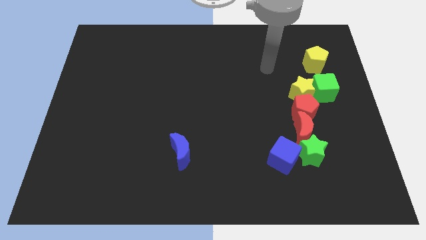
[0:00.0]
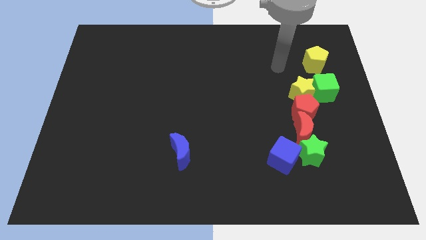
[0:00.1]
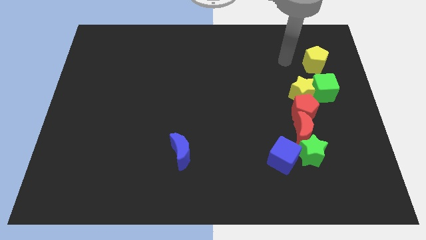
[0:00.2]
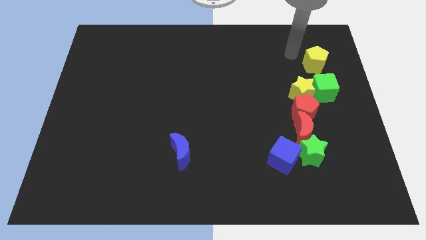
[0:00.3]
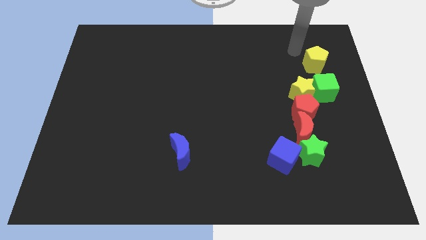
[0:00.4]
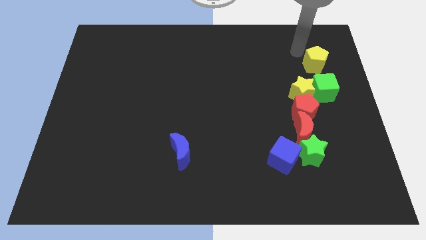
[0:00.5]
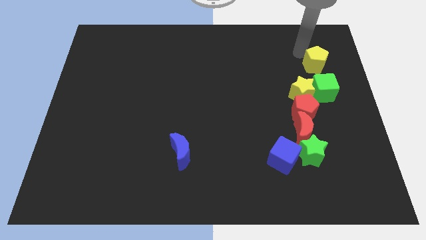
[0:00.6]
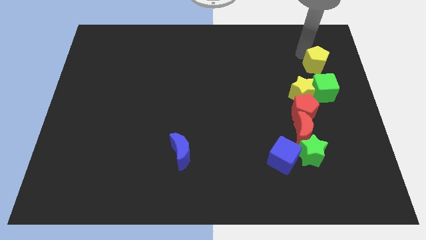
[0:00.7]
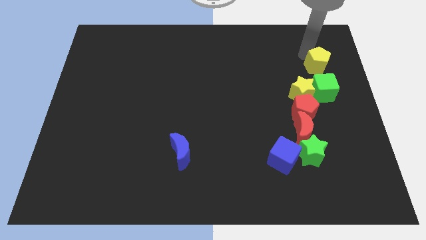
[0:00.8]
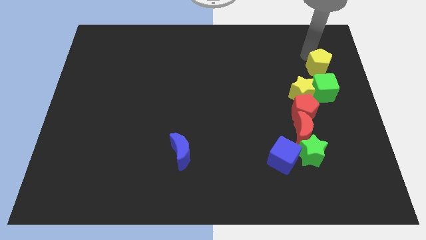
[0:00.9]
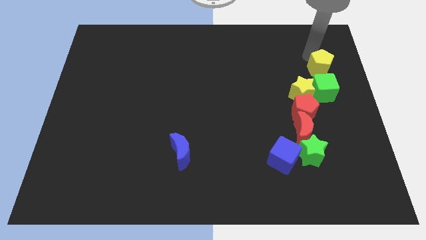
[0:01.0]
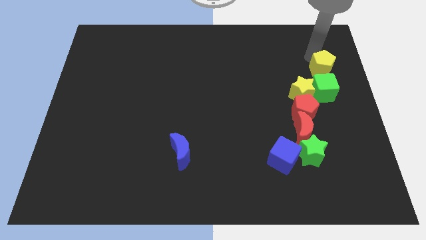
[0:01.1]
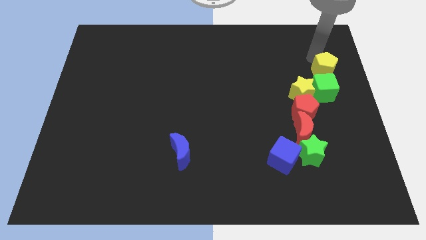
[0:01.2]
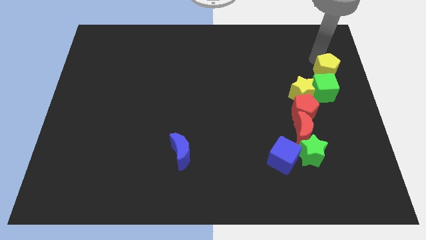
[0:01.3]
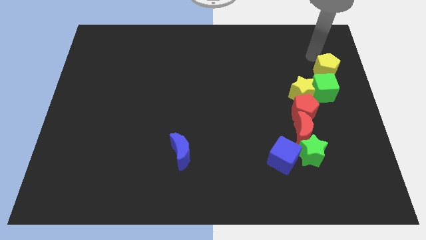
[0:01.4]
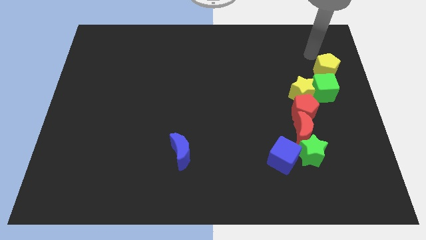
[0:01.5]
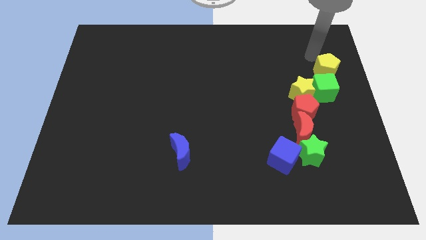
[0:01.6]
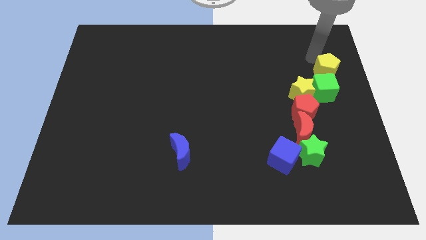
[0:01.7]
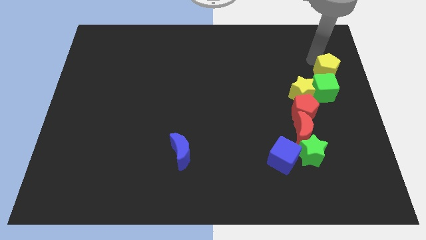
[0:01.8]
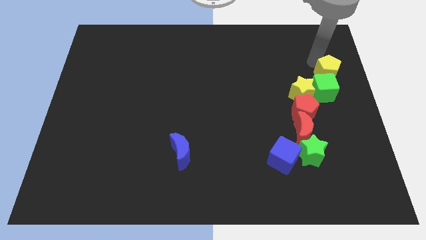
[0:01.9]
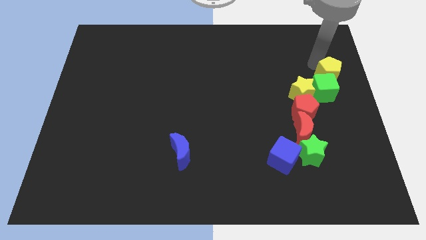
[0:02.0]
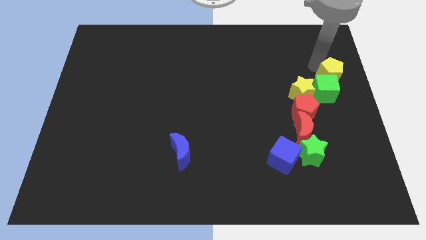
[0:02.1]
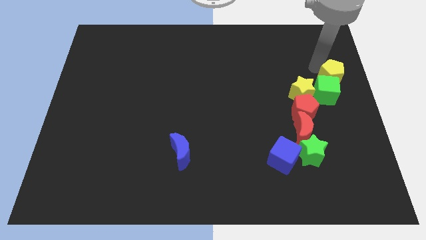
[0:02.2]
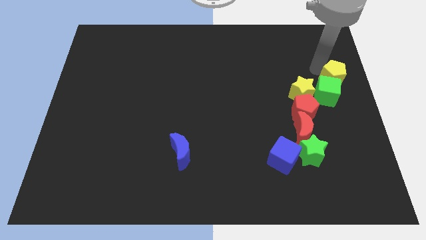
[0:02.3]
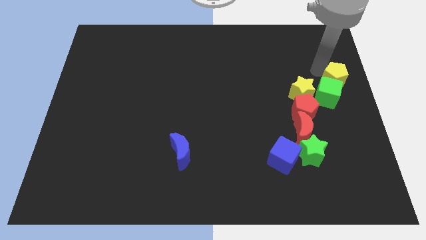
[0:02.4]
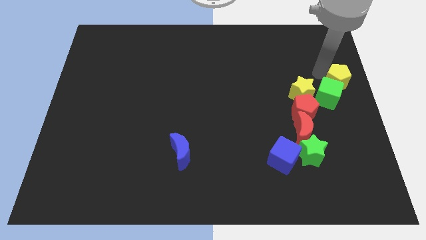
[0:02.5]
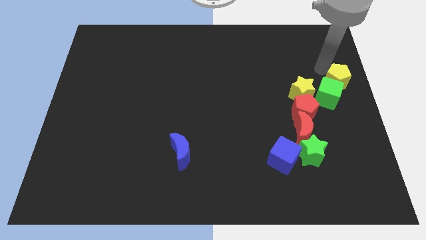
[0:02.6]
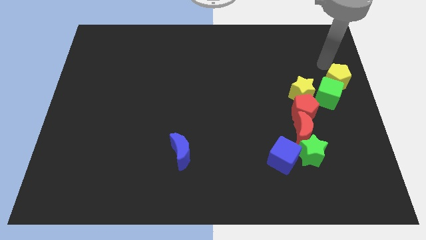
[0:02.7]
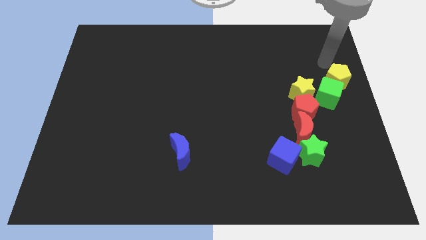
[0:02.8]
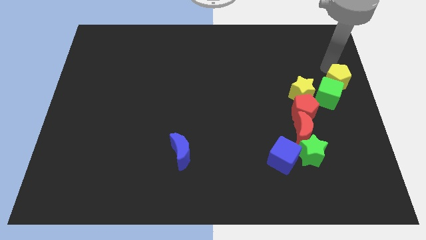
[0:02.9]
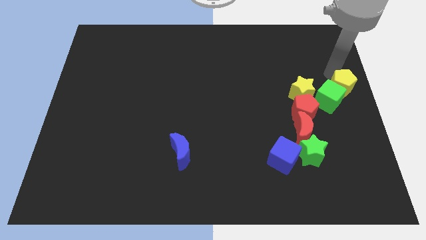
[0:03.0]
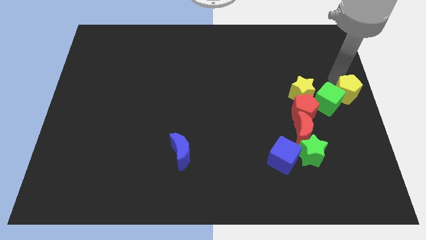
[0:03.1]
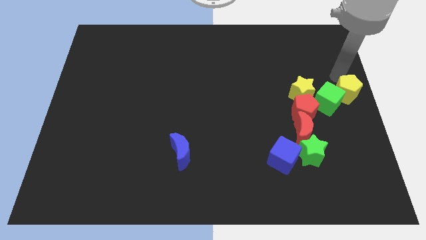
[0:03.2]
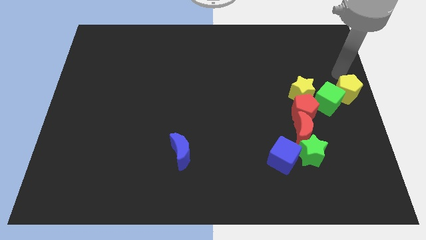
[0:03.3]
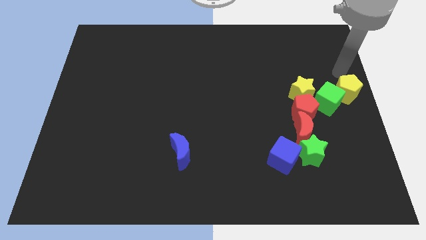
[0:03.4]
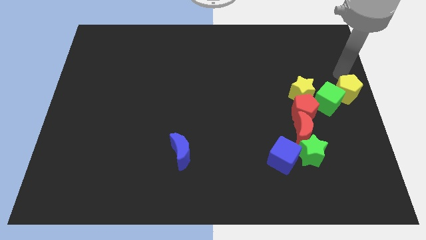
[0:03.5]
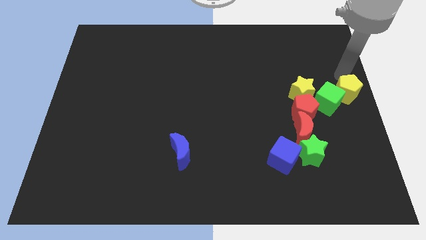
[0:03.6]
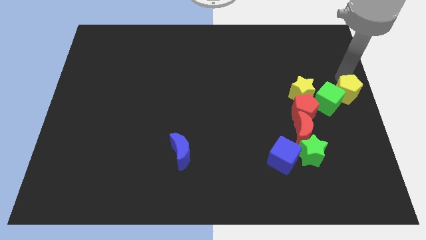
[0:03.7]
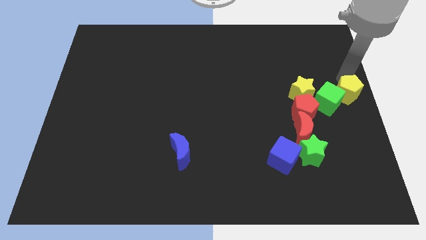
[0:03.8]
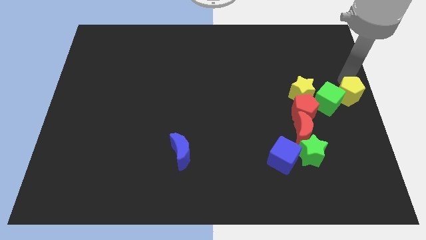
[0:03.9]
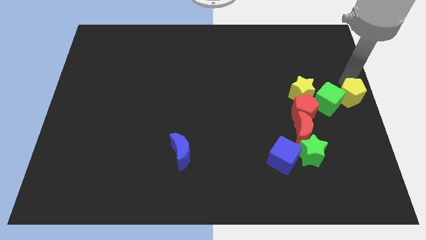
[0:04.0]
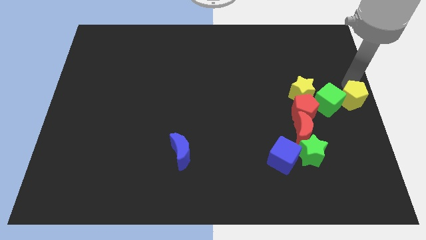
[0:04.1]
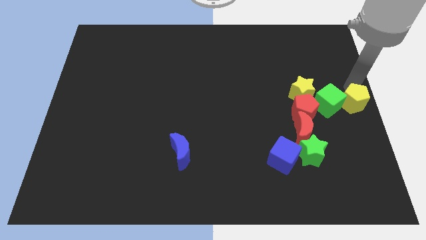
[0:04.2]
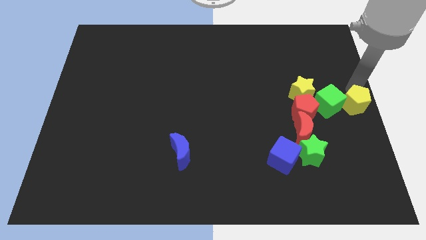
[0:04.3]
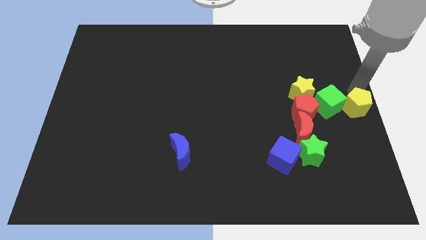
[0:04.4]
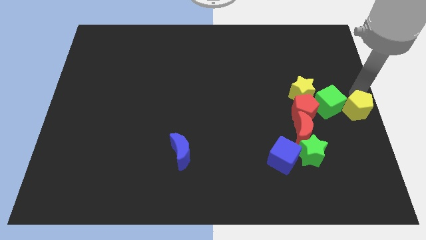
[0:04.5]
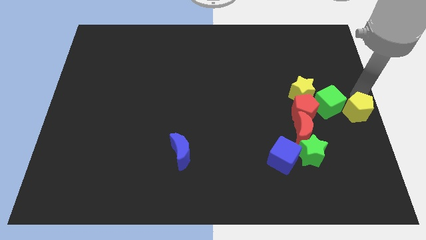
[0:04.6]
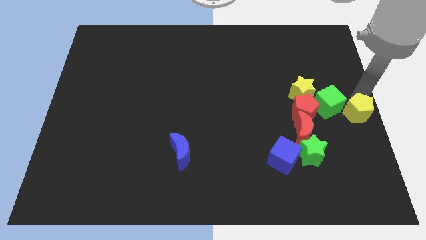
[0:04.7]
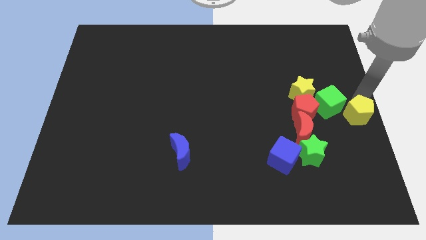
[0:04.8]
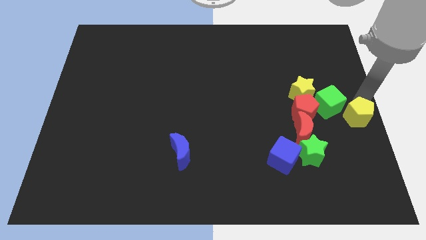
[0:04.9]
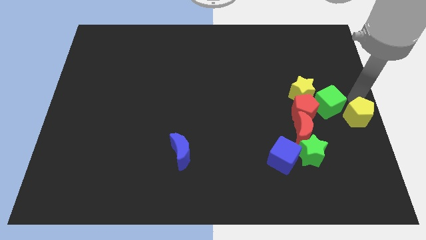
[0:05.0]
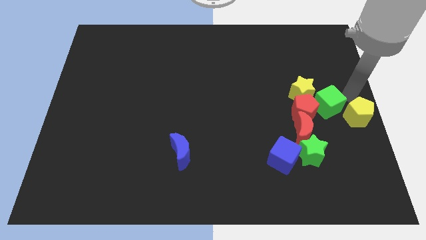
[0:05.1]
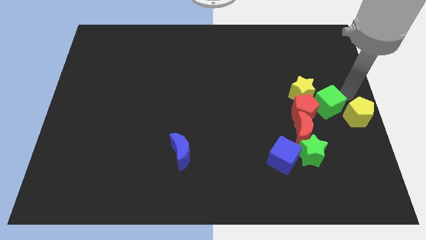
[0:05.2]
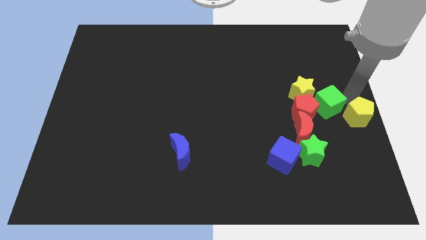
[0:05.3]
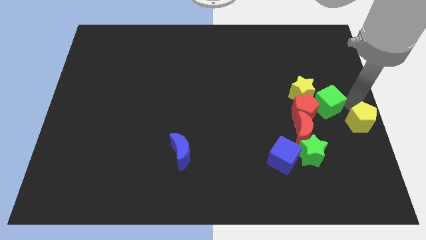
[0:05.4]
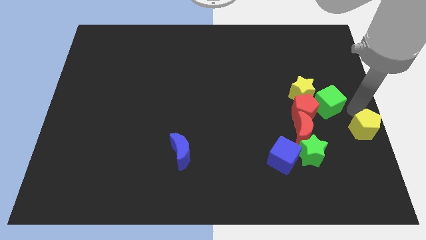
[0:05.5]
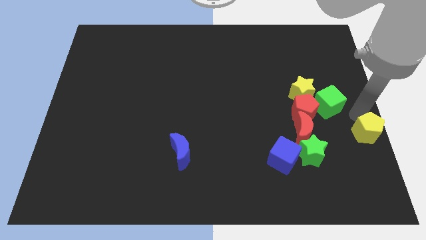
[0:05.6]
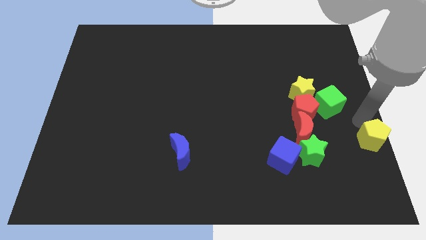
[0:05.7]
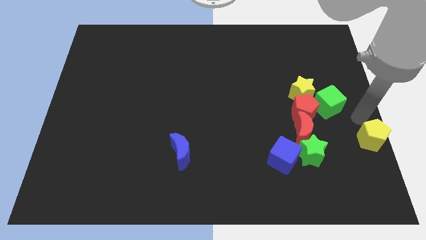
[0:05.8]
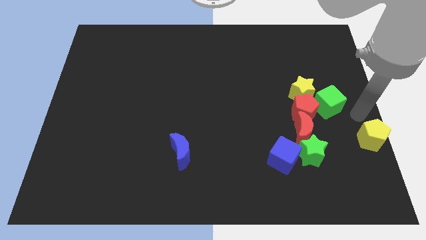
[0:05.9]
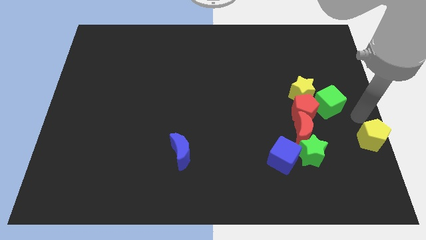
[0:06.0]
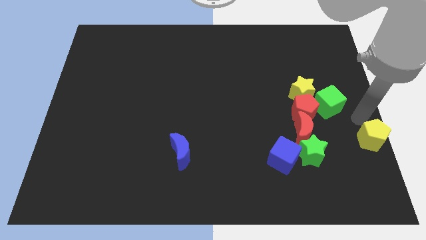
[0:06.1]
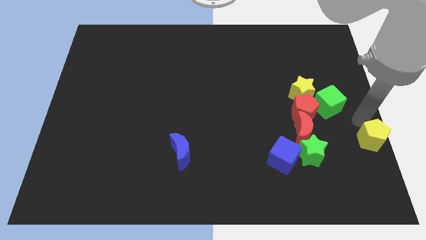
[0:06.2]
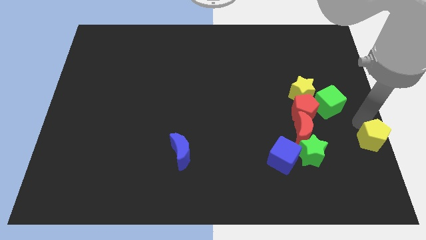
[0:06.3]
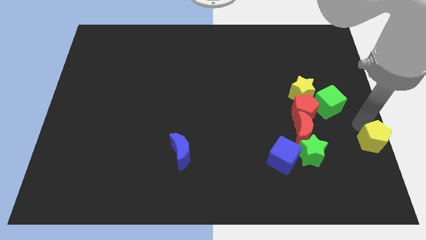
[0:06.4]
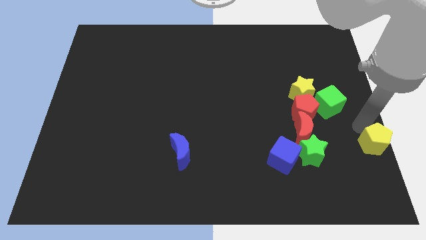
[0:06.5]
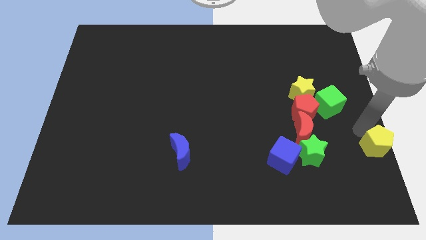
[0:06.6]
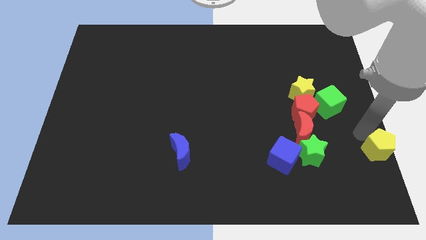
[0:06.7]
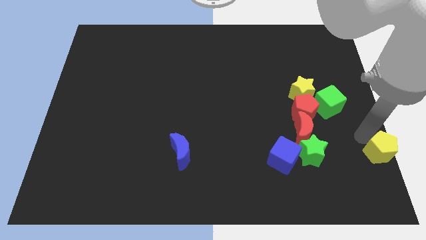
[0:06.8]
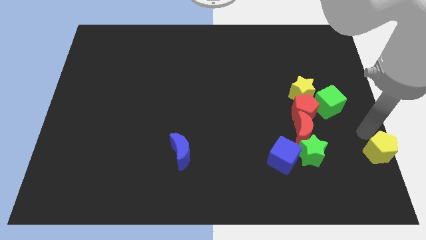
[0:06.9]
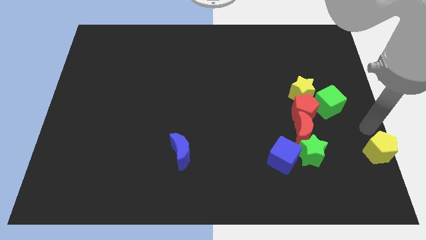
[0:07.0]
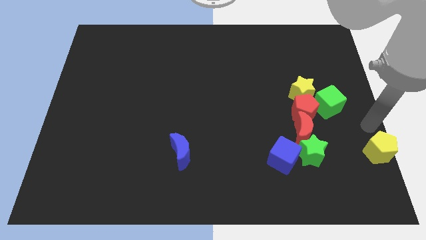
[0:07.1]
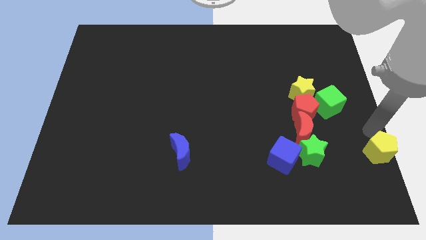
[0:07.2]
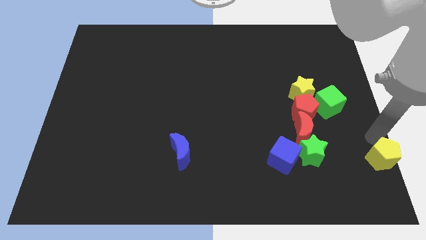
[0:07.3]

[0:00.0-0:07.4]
slide the yellow pentagon to the bottom right of the board

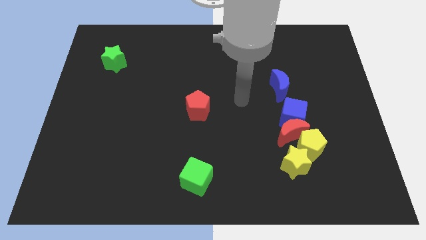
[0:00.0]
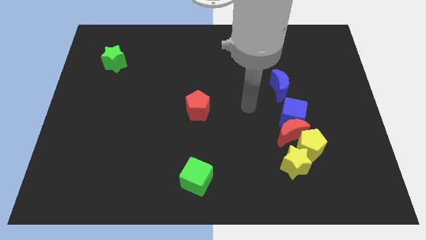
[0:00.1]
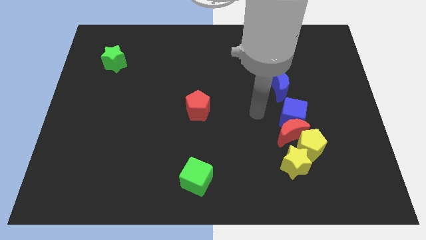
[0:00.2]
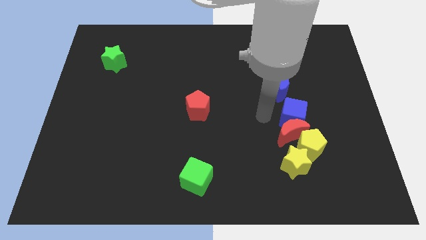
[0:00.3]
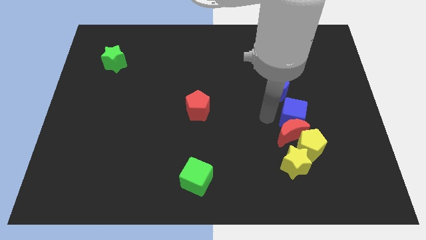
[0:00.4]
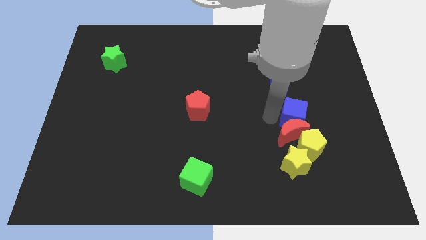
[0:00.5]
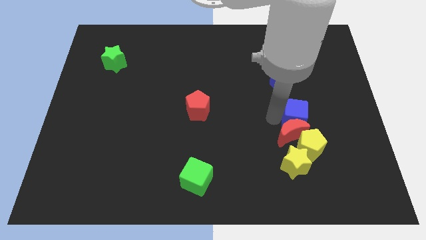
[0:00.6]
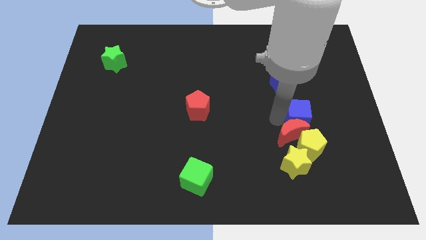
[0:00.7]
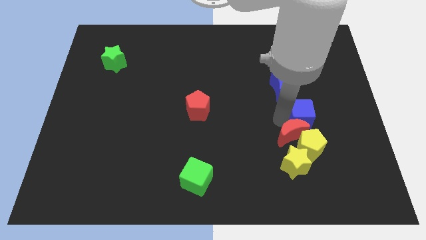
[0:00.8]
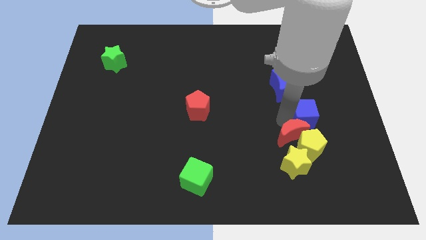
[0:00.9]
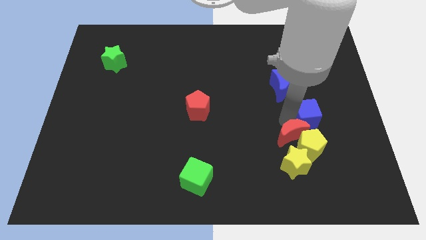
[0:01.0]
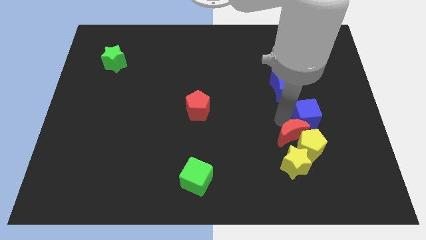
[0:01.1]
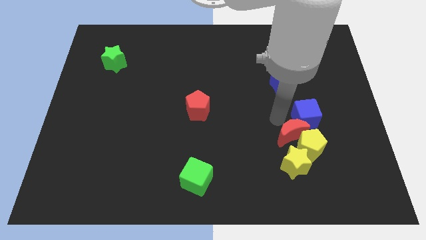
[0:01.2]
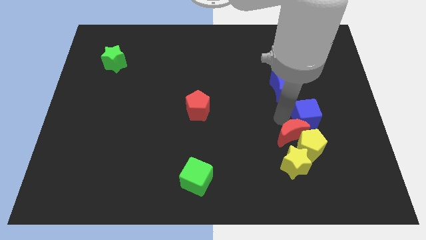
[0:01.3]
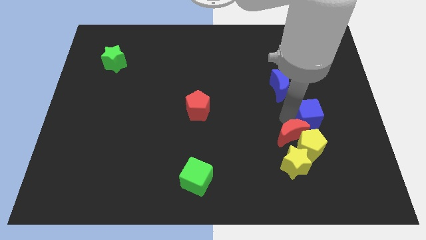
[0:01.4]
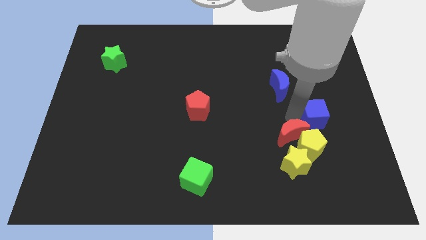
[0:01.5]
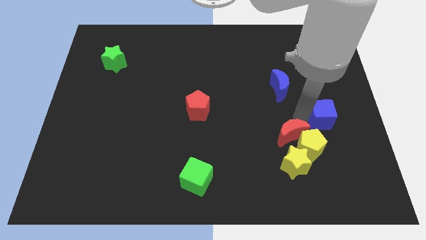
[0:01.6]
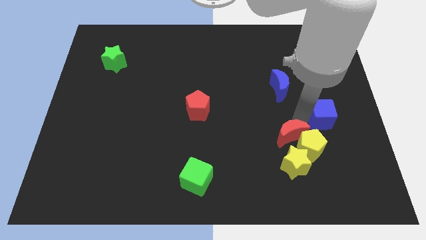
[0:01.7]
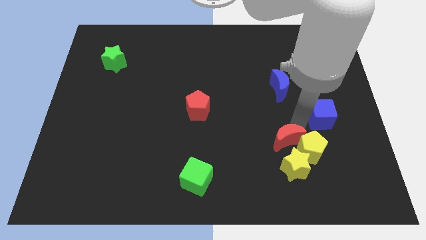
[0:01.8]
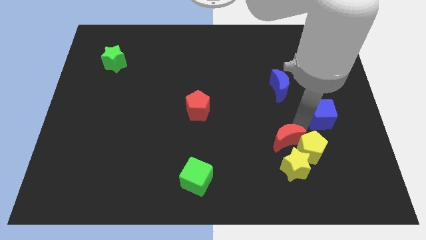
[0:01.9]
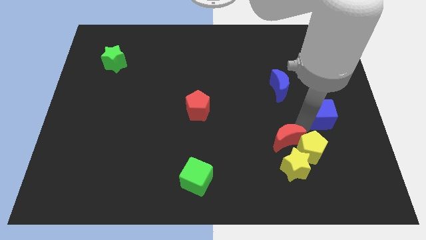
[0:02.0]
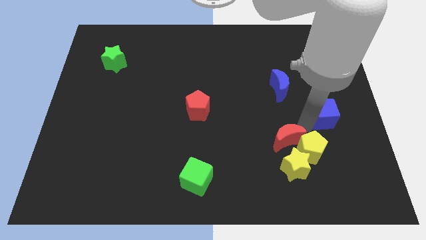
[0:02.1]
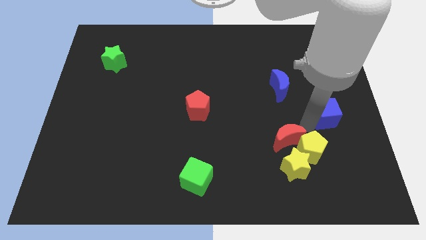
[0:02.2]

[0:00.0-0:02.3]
move the blue cube to the right side
